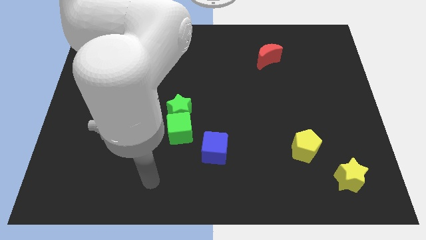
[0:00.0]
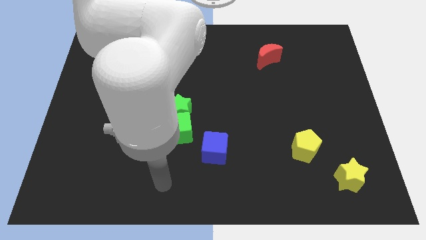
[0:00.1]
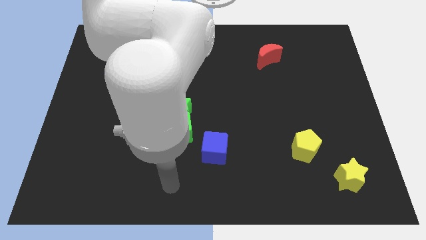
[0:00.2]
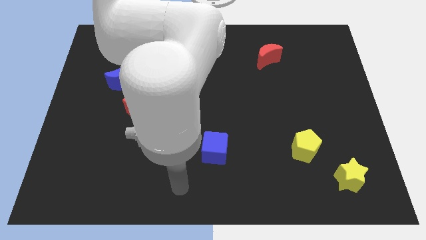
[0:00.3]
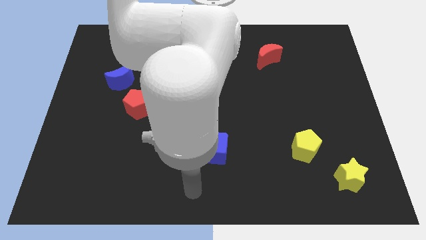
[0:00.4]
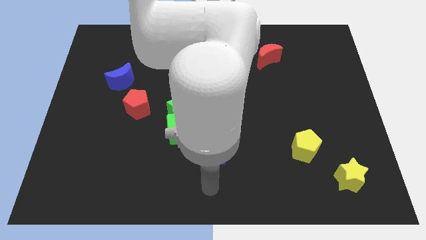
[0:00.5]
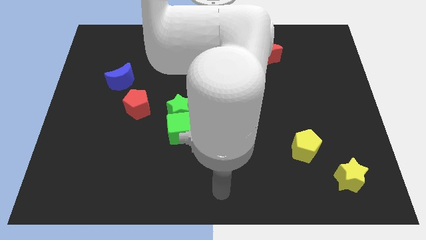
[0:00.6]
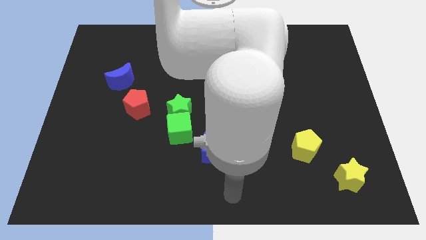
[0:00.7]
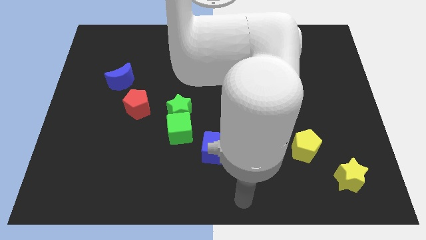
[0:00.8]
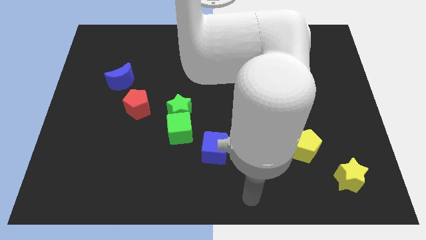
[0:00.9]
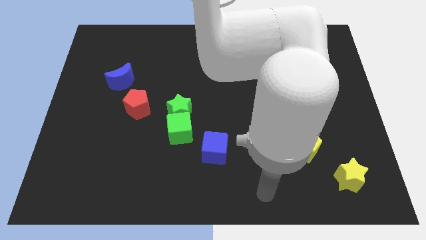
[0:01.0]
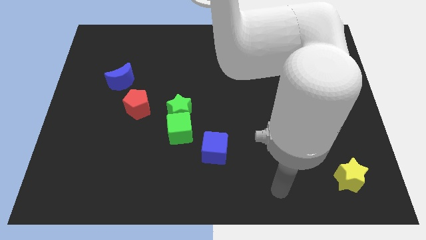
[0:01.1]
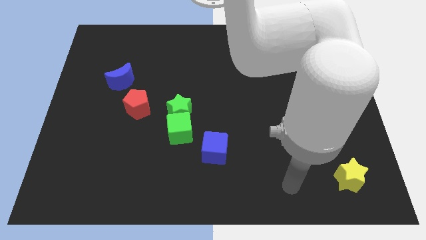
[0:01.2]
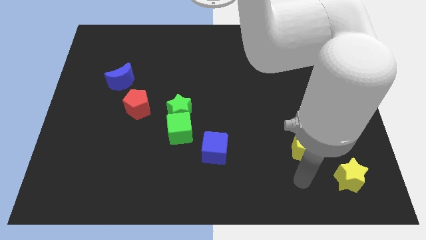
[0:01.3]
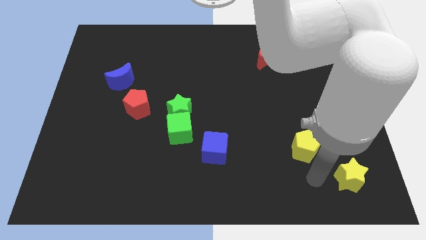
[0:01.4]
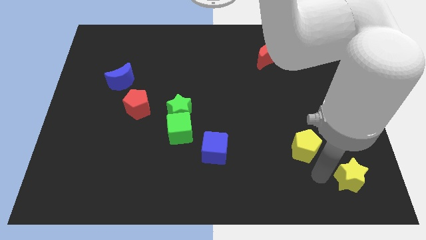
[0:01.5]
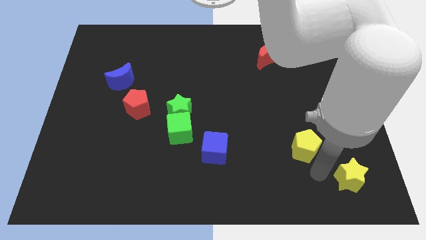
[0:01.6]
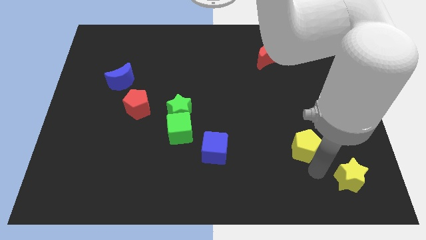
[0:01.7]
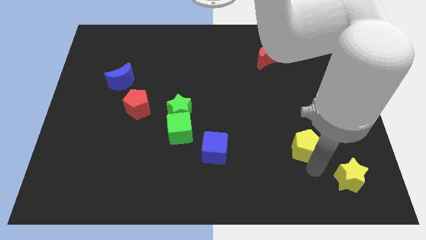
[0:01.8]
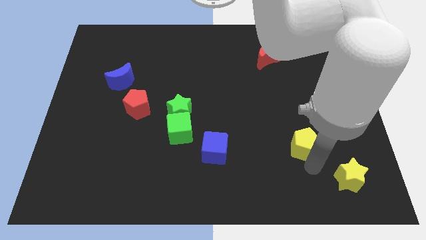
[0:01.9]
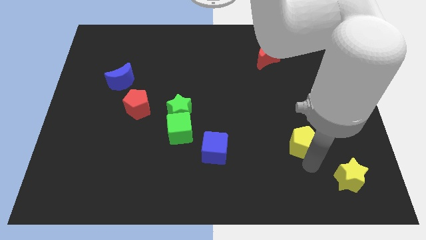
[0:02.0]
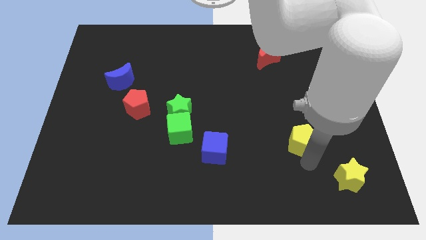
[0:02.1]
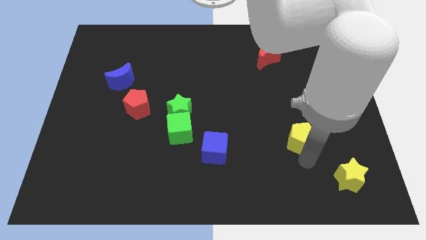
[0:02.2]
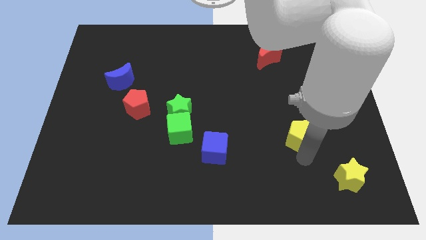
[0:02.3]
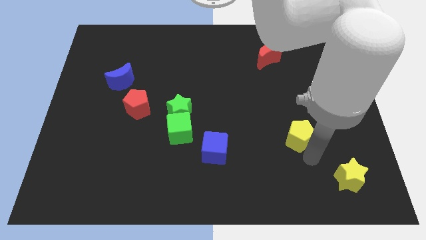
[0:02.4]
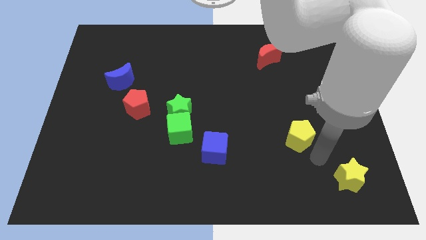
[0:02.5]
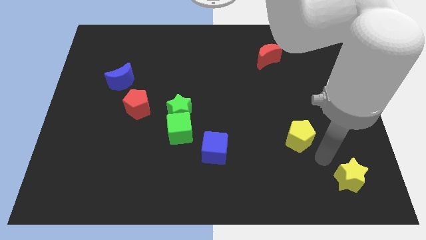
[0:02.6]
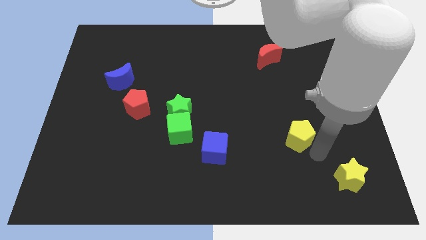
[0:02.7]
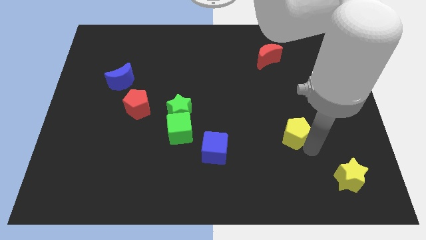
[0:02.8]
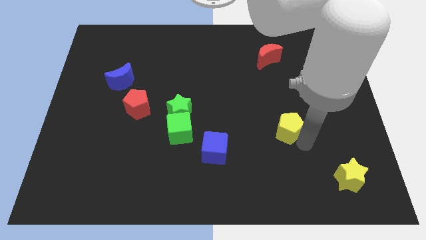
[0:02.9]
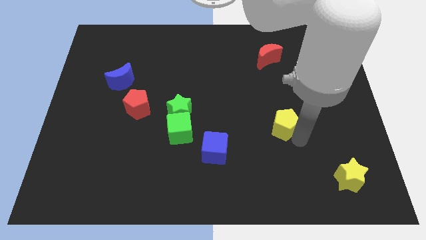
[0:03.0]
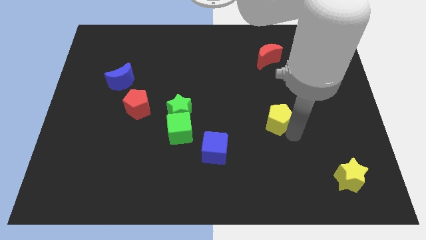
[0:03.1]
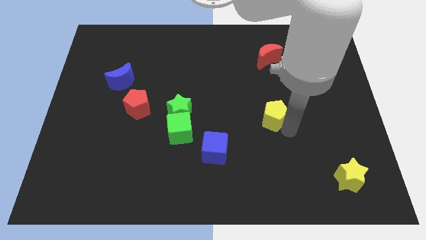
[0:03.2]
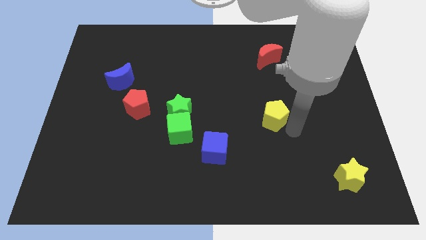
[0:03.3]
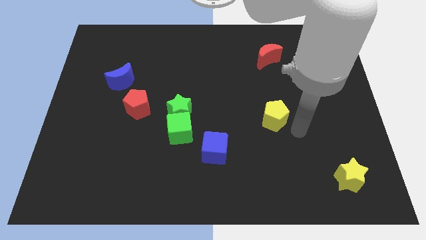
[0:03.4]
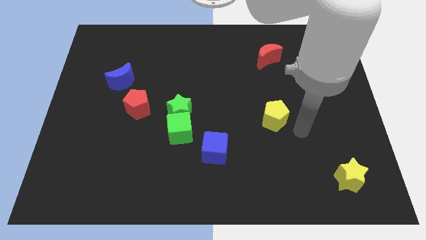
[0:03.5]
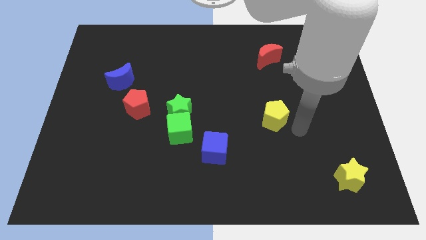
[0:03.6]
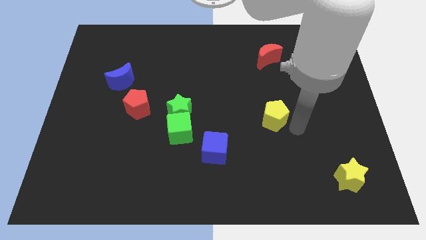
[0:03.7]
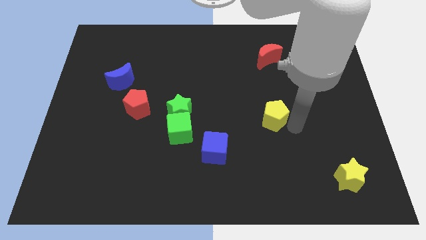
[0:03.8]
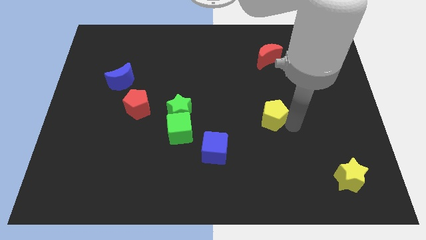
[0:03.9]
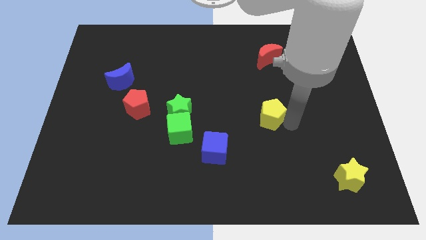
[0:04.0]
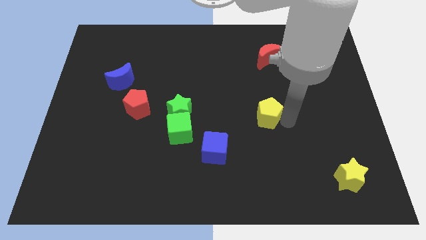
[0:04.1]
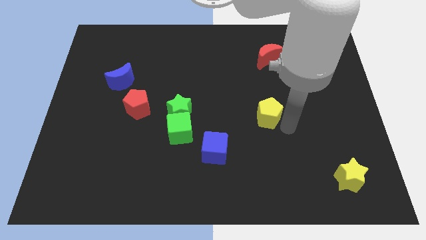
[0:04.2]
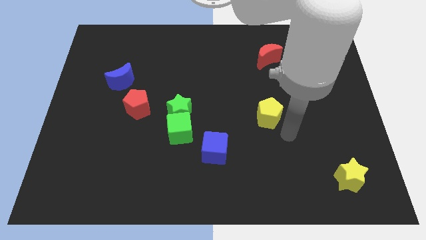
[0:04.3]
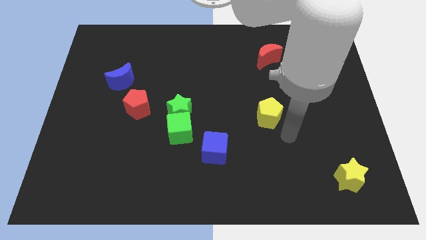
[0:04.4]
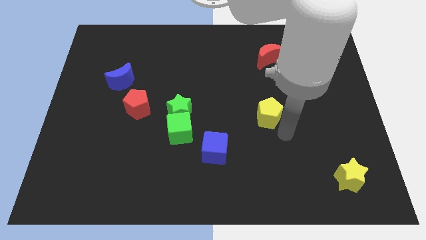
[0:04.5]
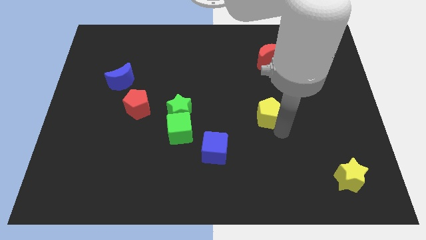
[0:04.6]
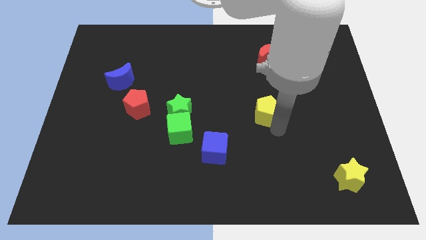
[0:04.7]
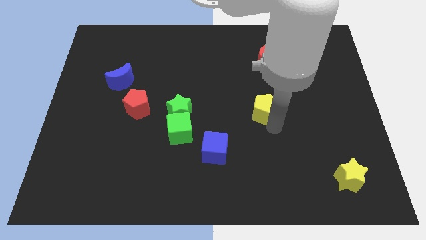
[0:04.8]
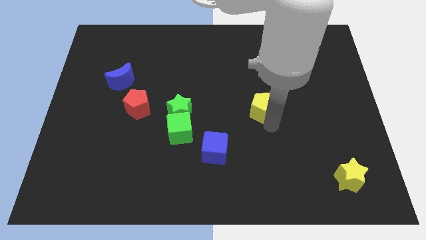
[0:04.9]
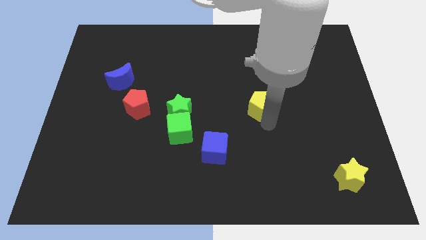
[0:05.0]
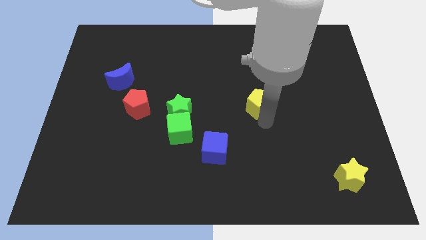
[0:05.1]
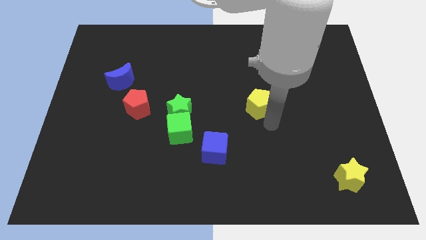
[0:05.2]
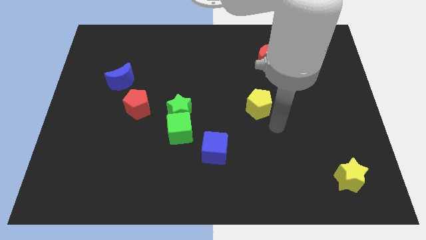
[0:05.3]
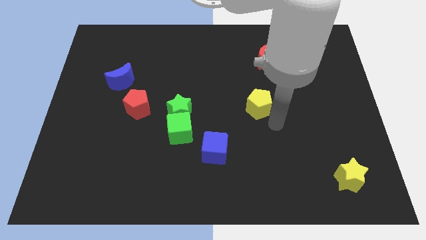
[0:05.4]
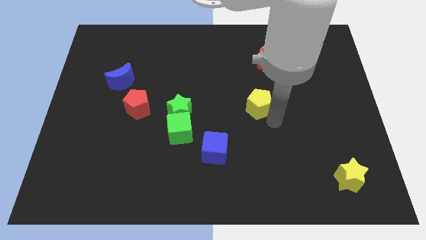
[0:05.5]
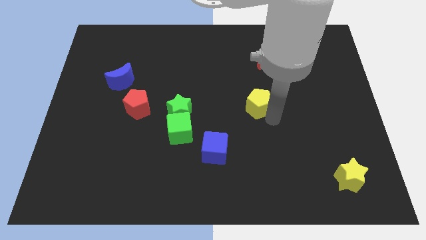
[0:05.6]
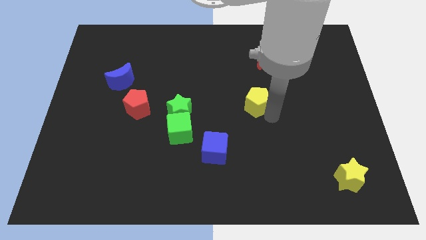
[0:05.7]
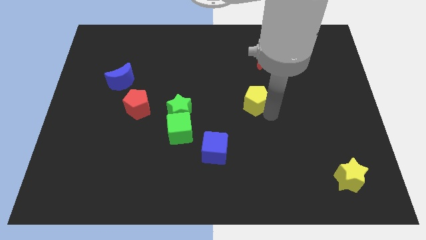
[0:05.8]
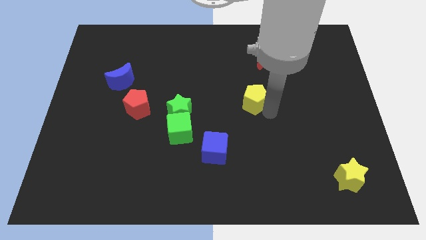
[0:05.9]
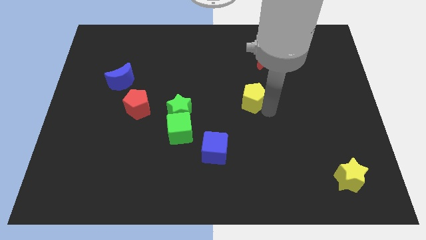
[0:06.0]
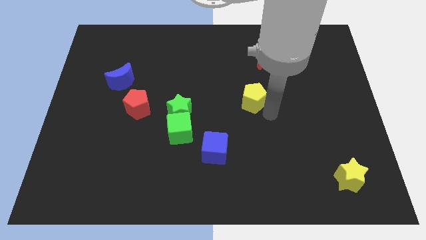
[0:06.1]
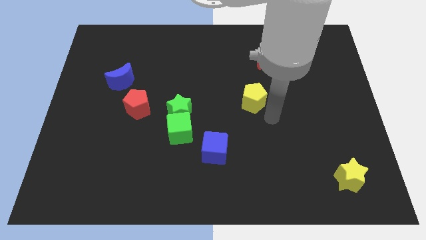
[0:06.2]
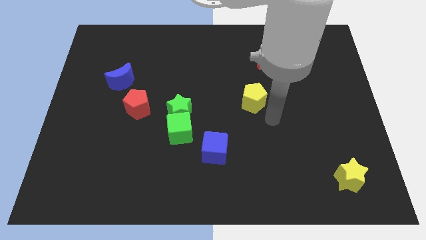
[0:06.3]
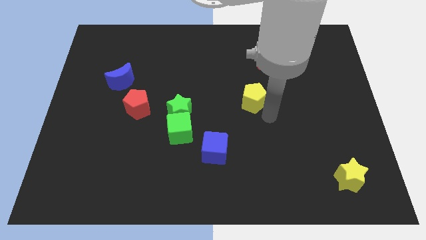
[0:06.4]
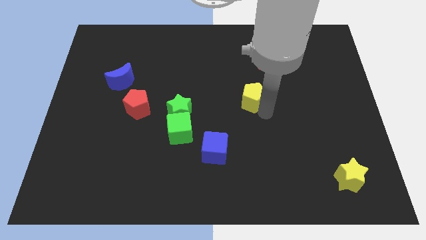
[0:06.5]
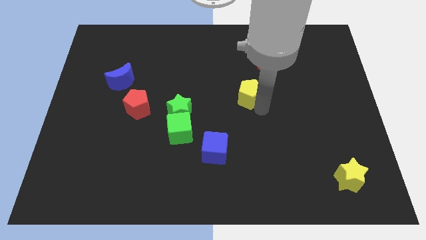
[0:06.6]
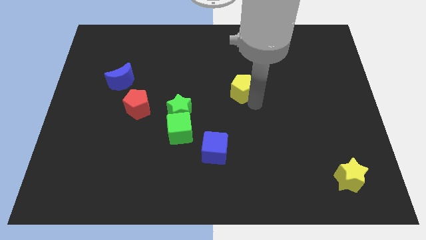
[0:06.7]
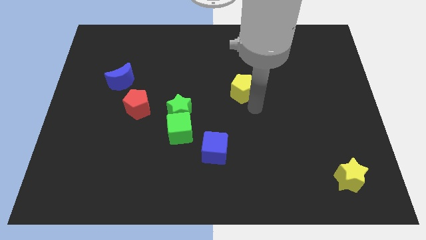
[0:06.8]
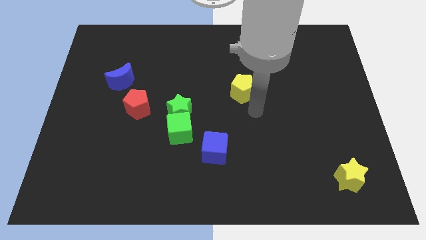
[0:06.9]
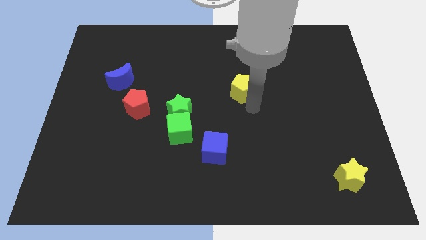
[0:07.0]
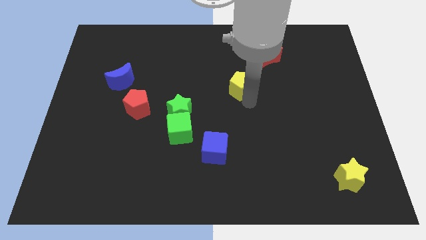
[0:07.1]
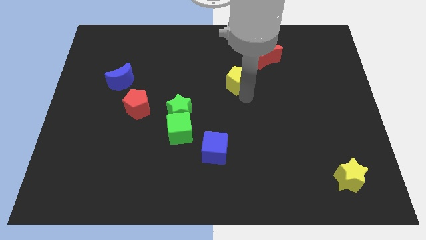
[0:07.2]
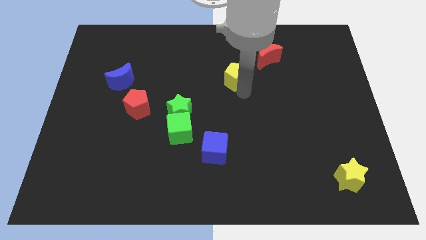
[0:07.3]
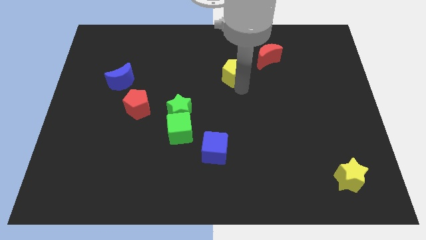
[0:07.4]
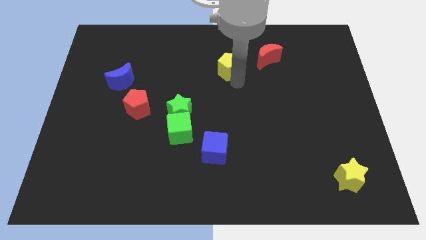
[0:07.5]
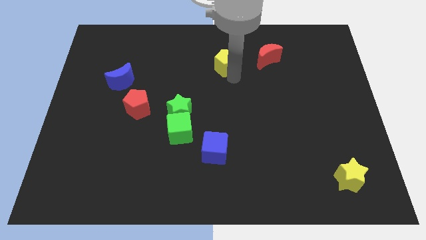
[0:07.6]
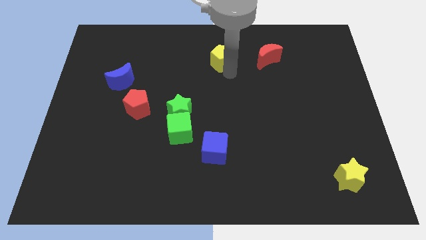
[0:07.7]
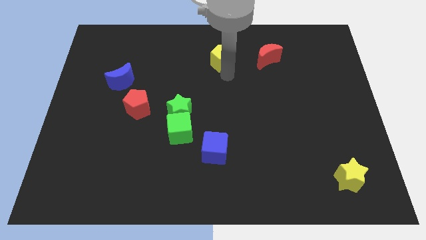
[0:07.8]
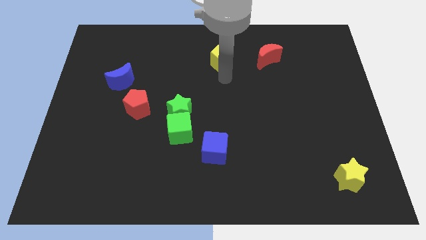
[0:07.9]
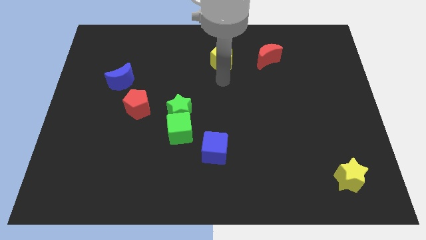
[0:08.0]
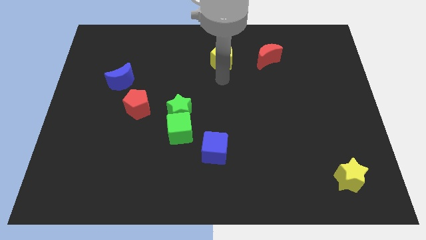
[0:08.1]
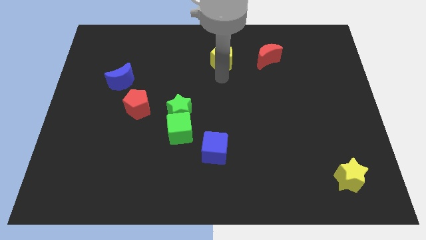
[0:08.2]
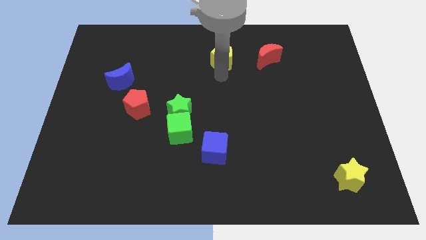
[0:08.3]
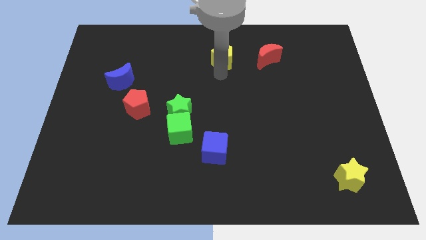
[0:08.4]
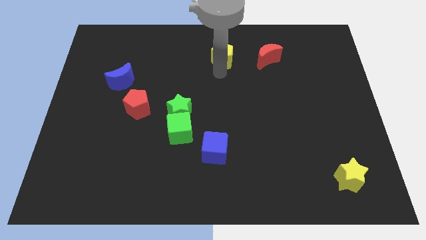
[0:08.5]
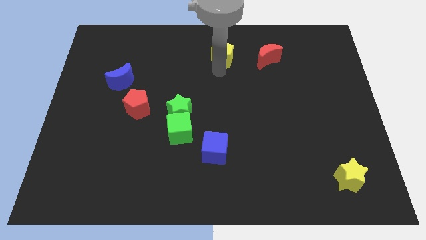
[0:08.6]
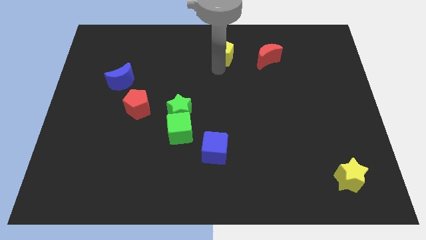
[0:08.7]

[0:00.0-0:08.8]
move the yellow pentagon to the top
